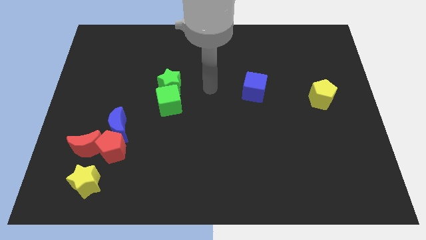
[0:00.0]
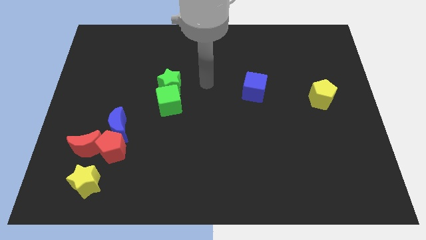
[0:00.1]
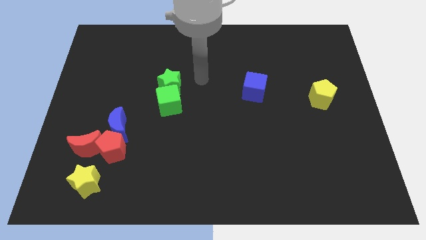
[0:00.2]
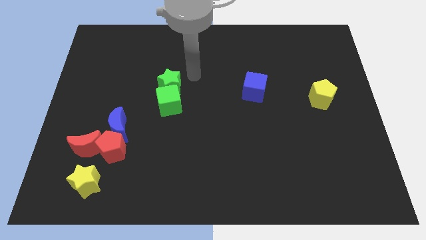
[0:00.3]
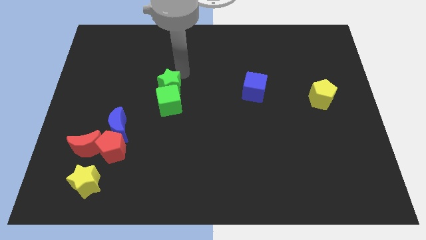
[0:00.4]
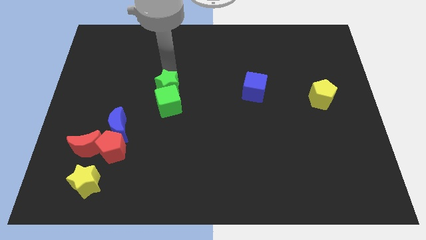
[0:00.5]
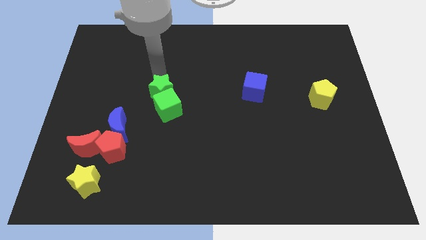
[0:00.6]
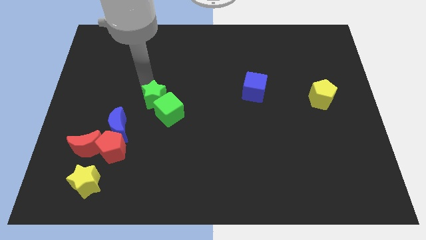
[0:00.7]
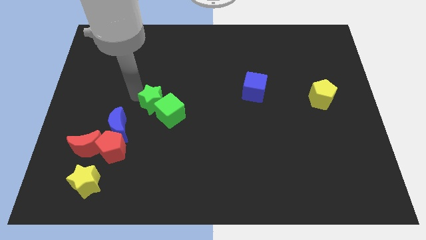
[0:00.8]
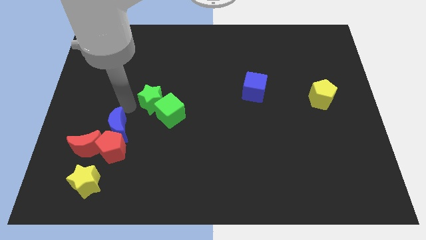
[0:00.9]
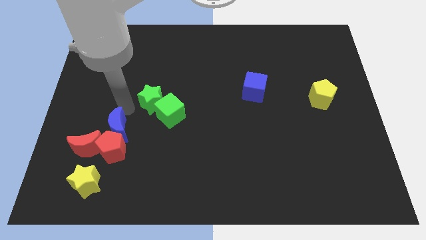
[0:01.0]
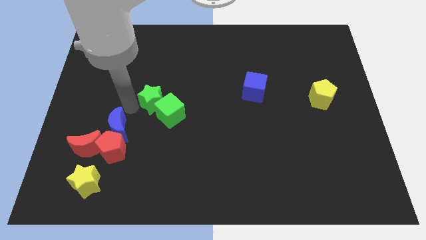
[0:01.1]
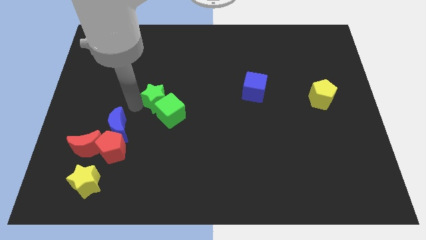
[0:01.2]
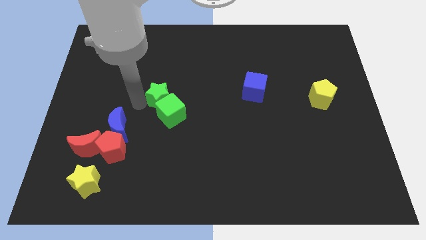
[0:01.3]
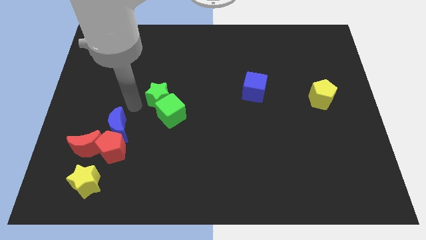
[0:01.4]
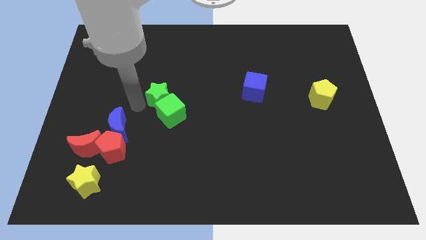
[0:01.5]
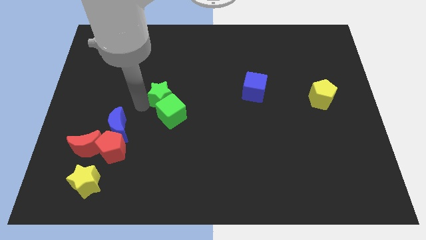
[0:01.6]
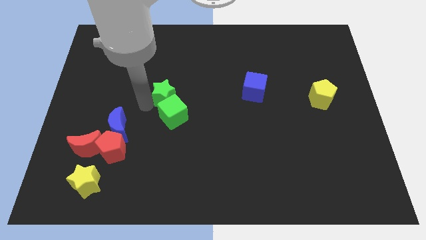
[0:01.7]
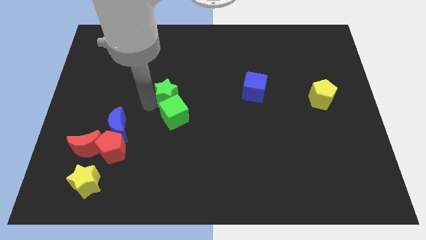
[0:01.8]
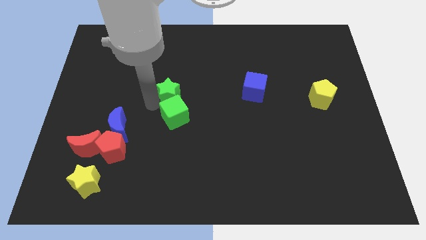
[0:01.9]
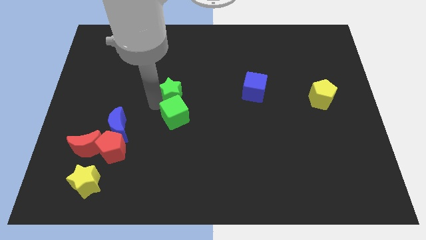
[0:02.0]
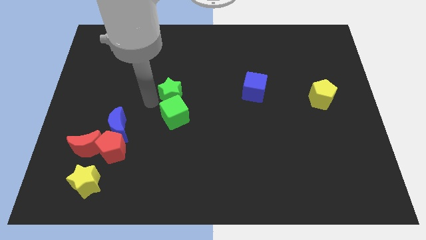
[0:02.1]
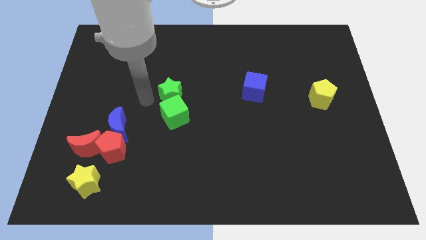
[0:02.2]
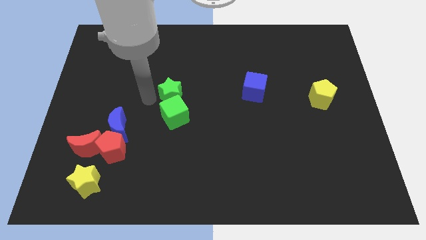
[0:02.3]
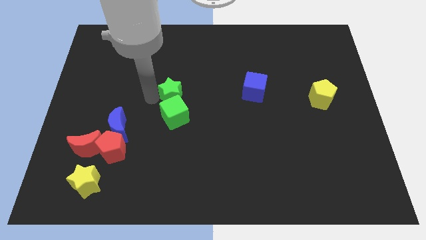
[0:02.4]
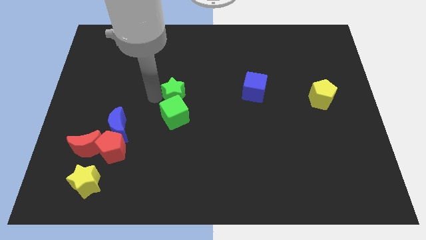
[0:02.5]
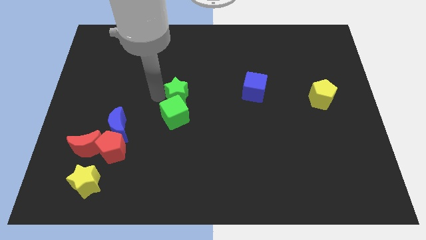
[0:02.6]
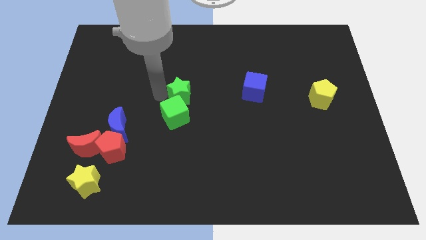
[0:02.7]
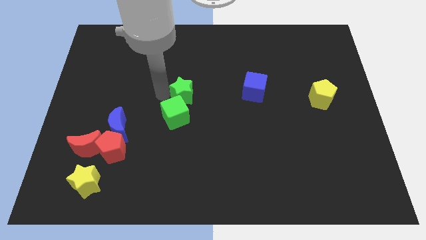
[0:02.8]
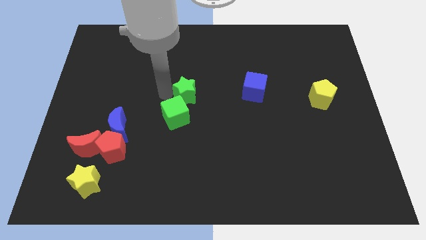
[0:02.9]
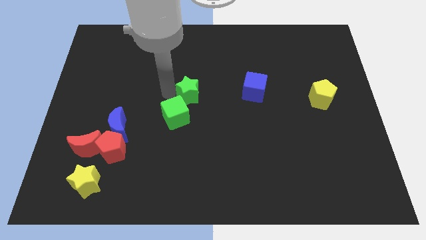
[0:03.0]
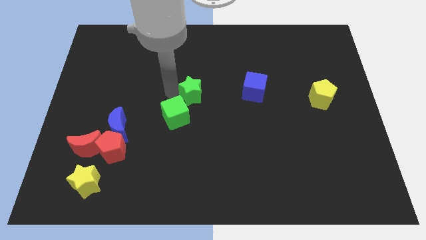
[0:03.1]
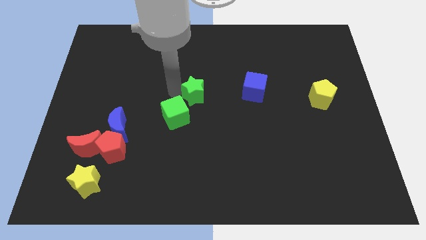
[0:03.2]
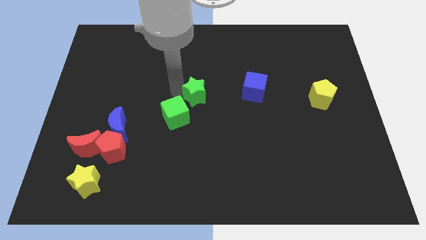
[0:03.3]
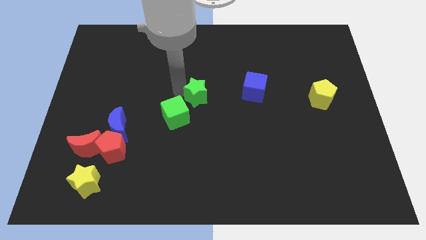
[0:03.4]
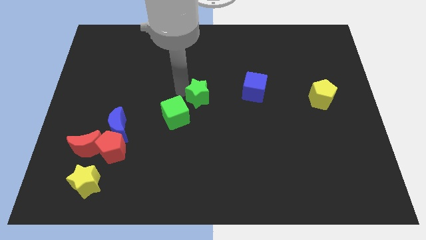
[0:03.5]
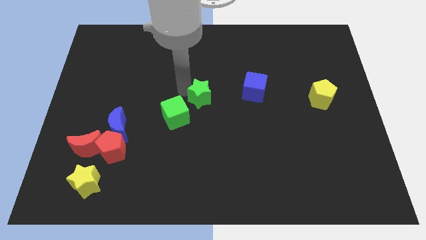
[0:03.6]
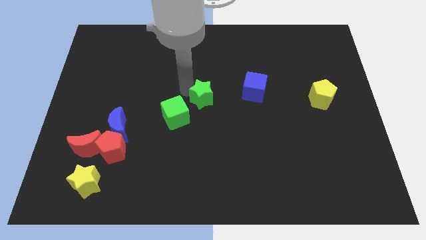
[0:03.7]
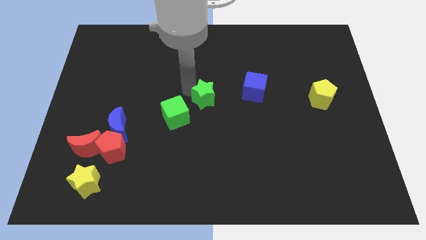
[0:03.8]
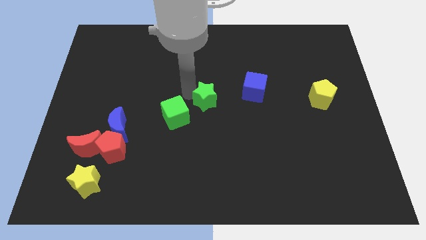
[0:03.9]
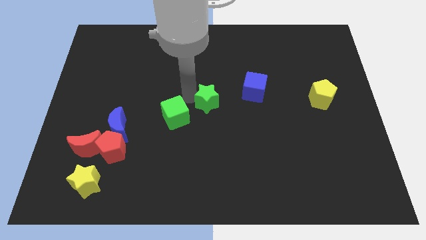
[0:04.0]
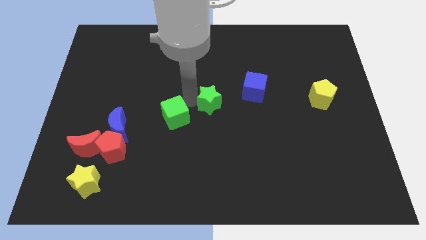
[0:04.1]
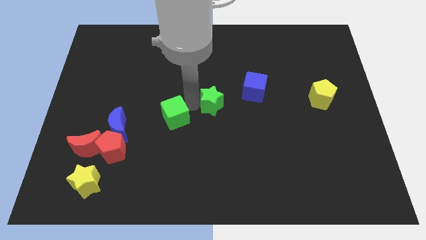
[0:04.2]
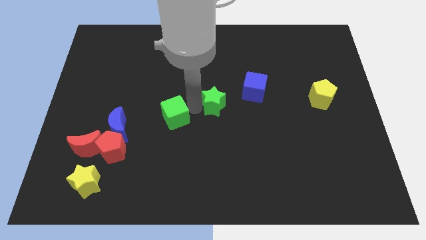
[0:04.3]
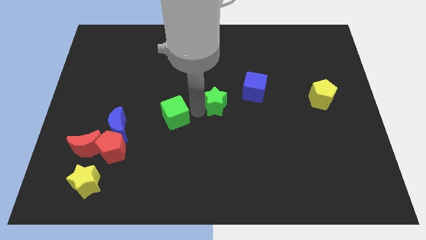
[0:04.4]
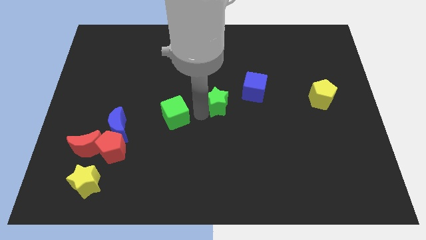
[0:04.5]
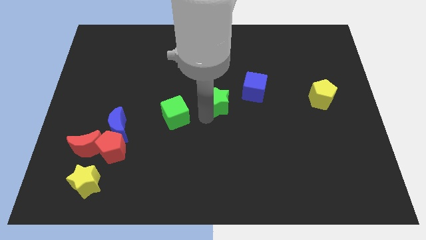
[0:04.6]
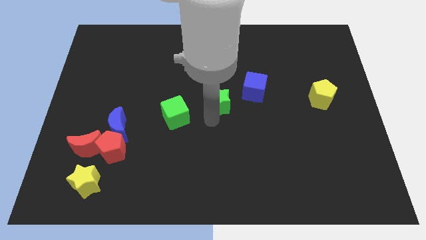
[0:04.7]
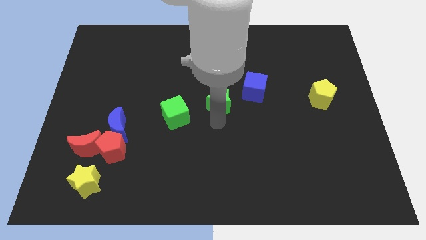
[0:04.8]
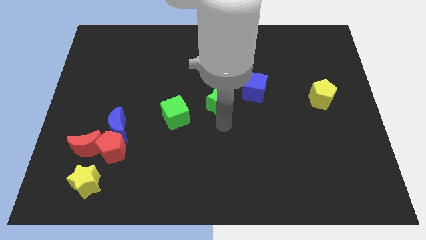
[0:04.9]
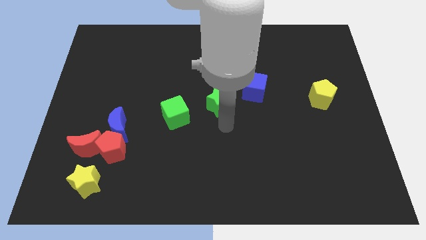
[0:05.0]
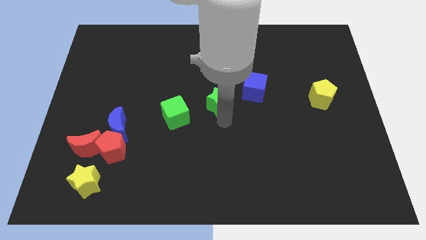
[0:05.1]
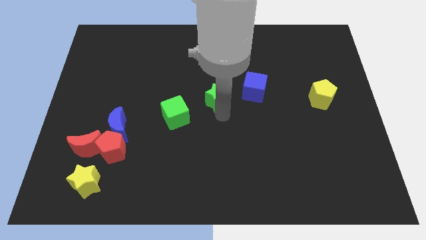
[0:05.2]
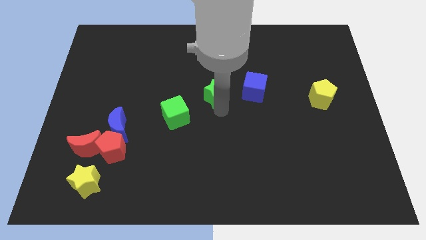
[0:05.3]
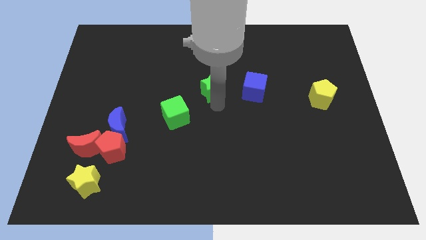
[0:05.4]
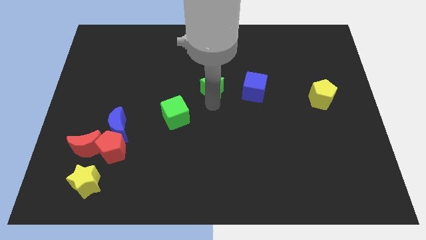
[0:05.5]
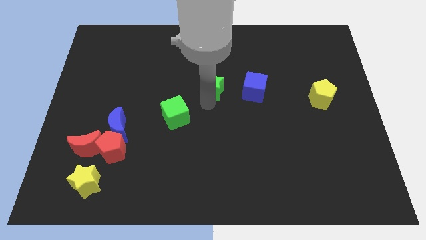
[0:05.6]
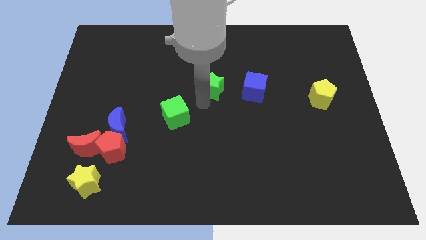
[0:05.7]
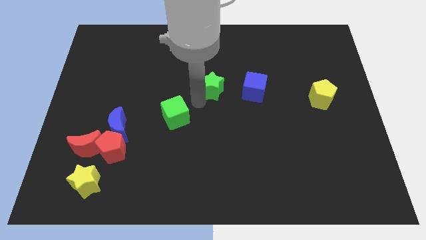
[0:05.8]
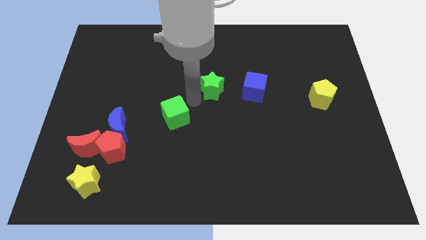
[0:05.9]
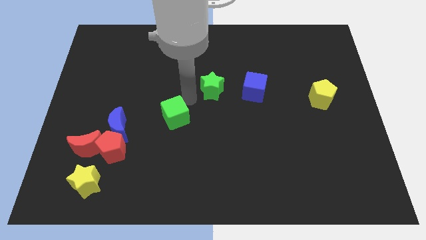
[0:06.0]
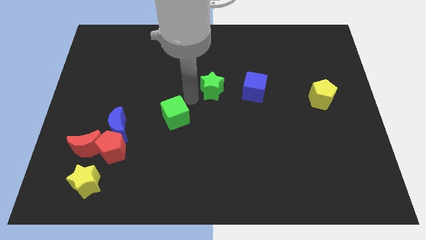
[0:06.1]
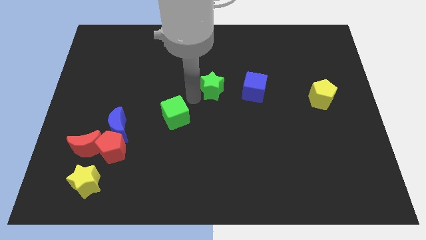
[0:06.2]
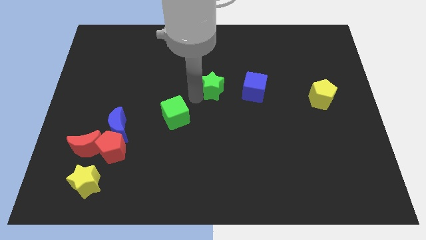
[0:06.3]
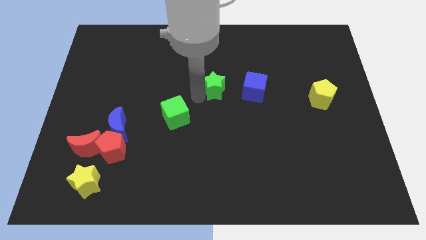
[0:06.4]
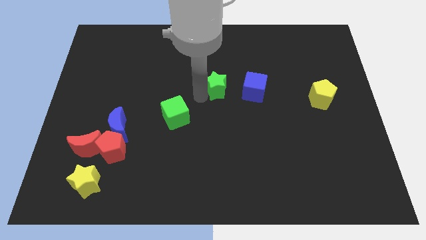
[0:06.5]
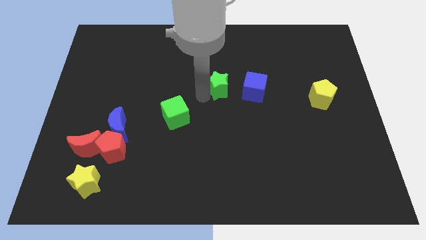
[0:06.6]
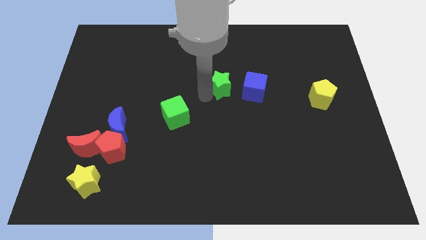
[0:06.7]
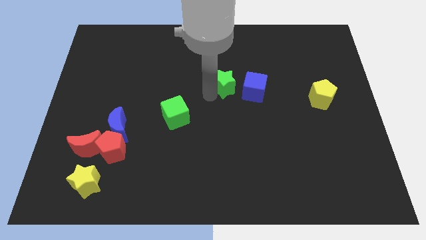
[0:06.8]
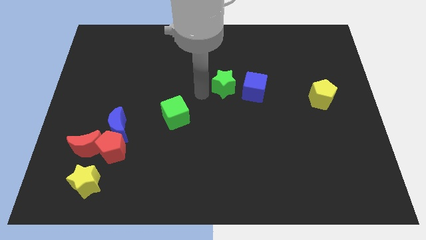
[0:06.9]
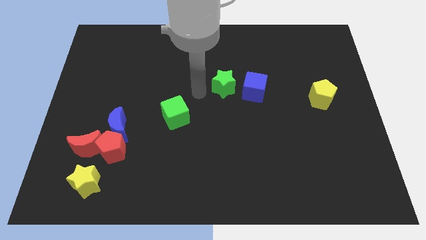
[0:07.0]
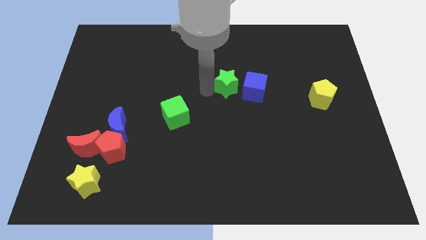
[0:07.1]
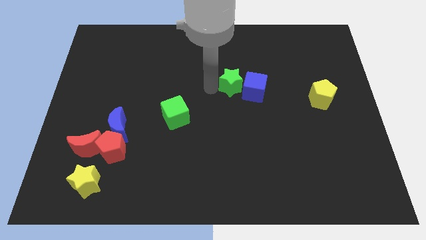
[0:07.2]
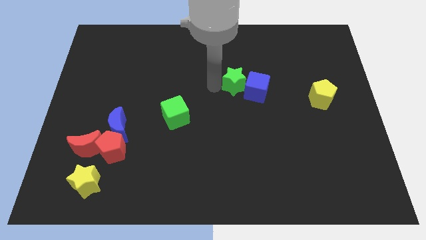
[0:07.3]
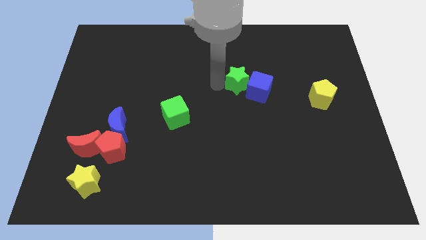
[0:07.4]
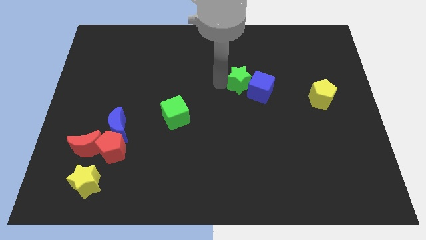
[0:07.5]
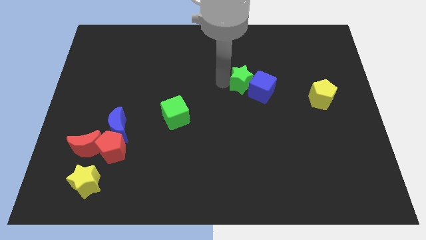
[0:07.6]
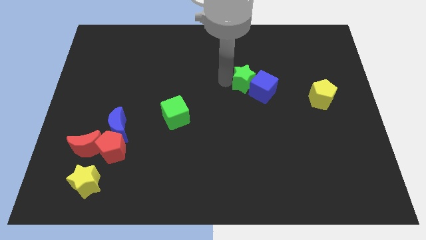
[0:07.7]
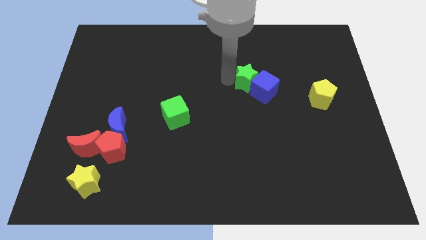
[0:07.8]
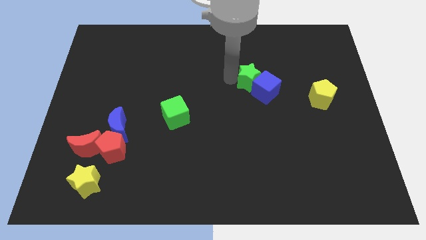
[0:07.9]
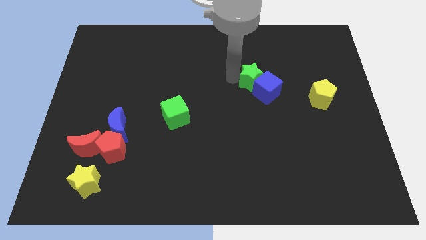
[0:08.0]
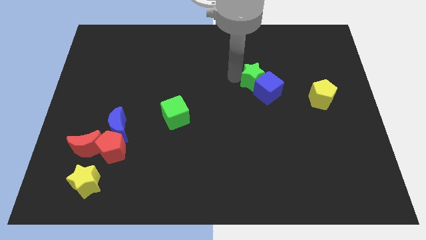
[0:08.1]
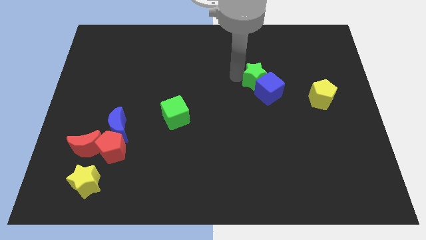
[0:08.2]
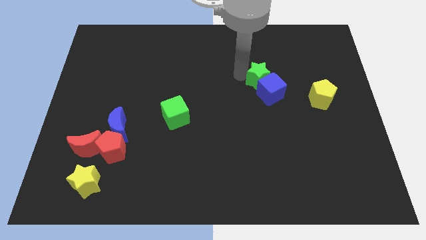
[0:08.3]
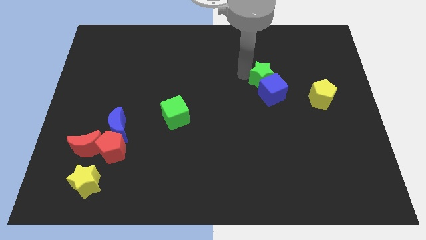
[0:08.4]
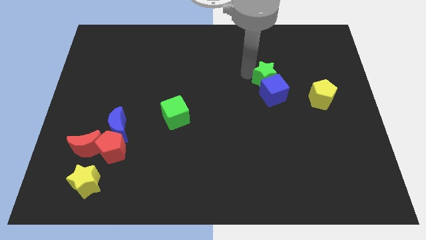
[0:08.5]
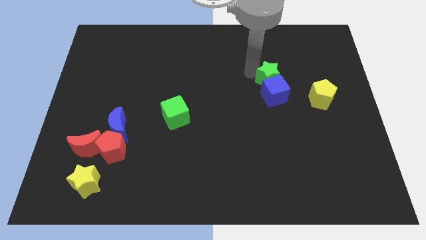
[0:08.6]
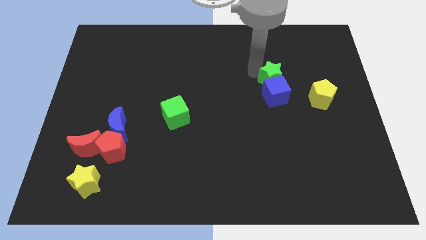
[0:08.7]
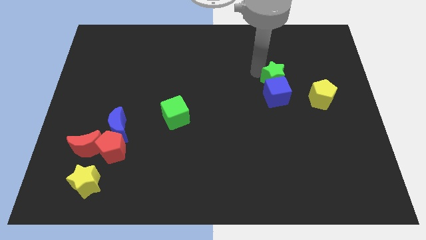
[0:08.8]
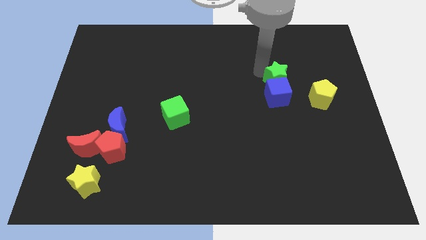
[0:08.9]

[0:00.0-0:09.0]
put the green star diagonally up and to the left of the yellow pentagon
